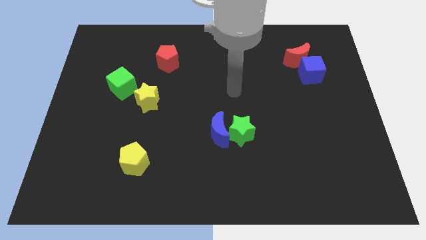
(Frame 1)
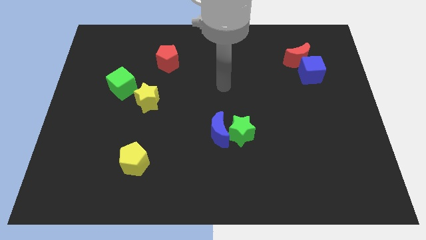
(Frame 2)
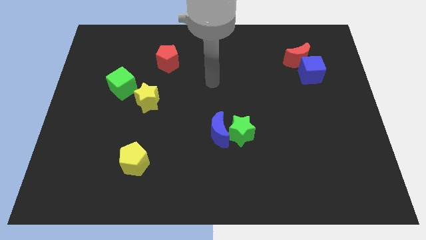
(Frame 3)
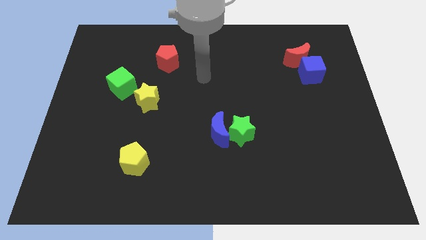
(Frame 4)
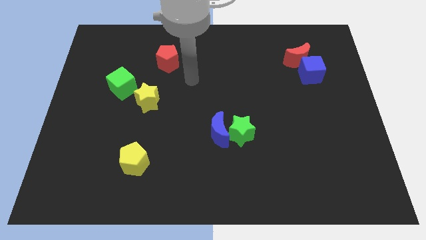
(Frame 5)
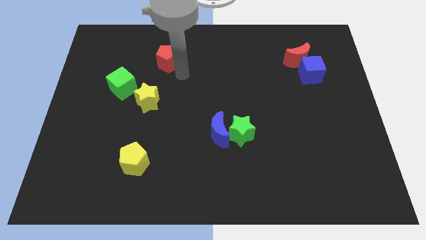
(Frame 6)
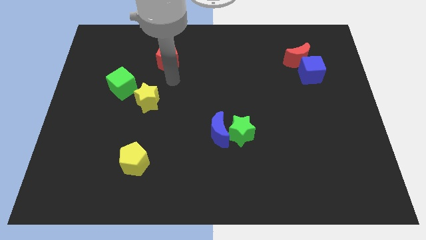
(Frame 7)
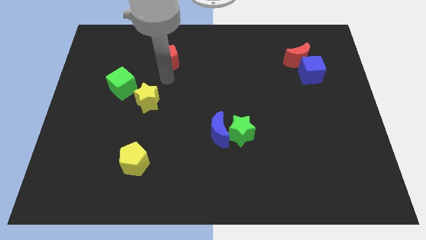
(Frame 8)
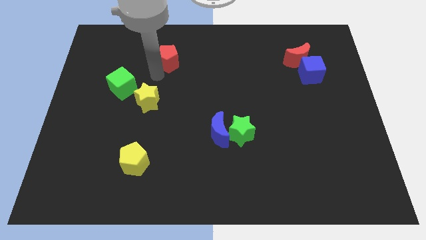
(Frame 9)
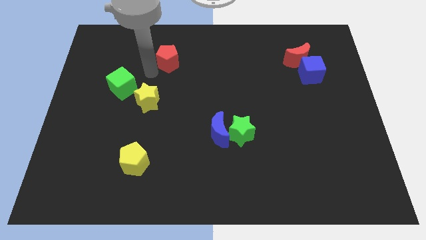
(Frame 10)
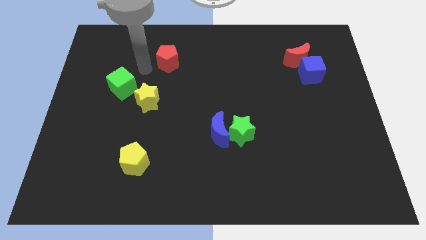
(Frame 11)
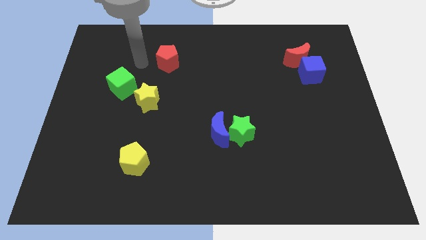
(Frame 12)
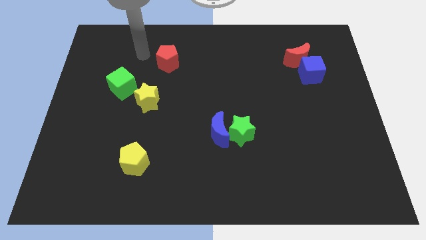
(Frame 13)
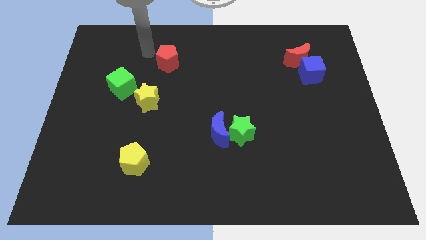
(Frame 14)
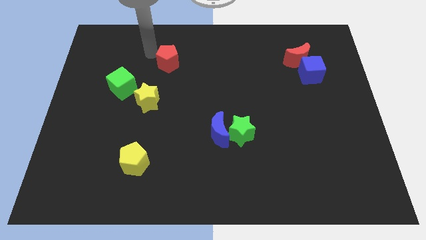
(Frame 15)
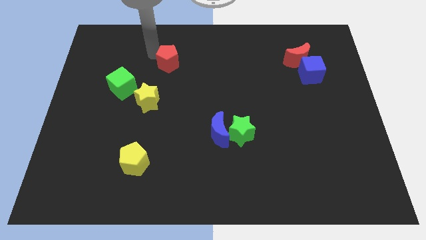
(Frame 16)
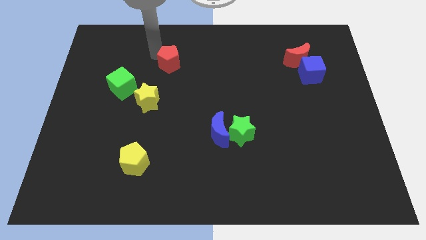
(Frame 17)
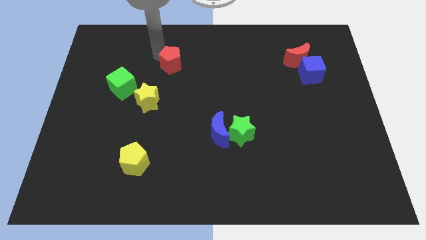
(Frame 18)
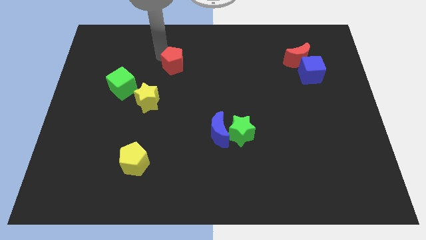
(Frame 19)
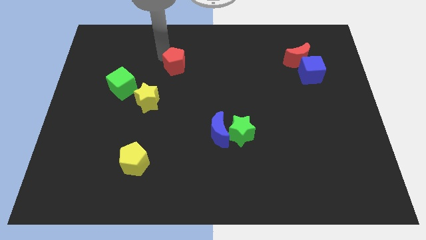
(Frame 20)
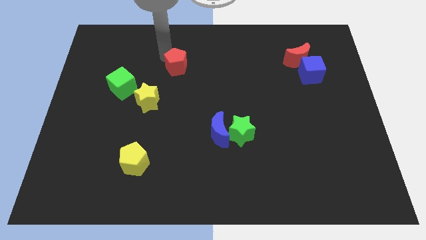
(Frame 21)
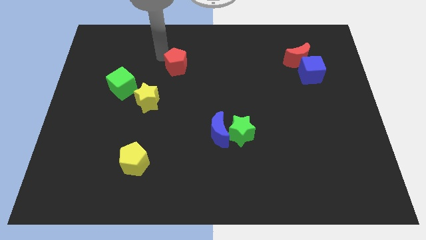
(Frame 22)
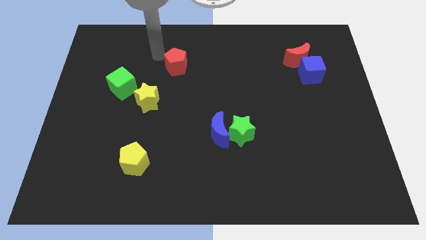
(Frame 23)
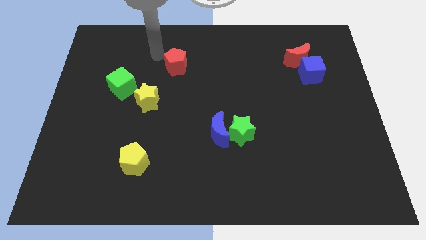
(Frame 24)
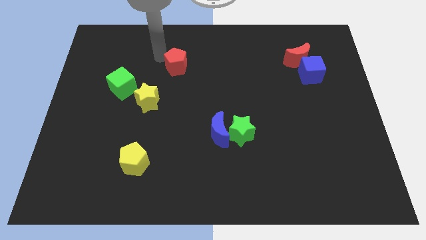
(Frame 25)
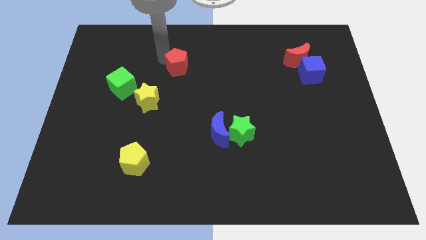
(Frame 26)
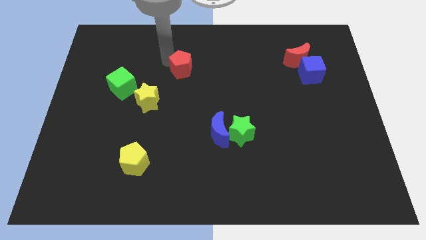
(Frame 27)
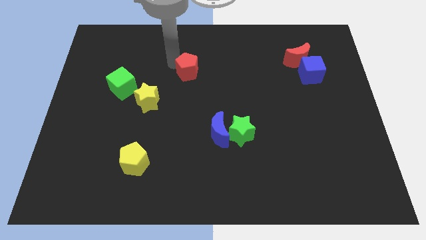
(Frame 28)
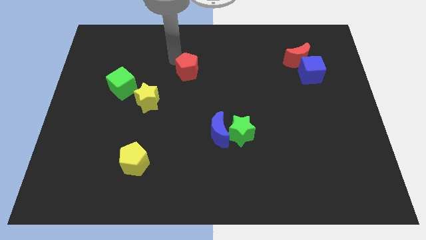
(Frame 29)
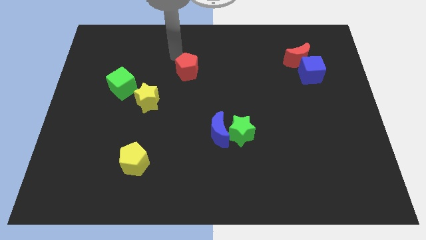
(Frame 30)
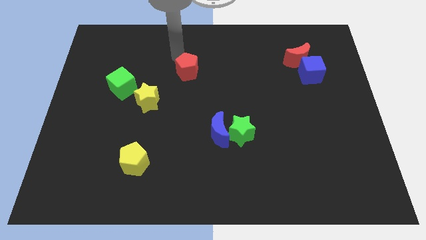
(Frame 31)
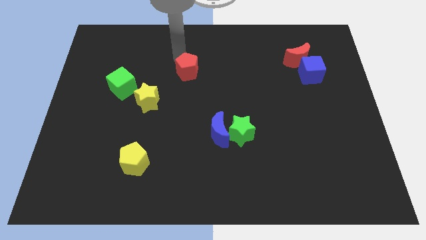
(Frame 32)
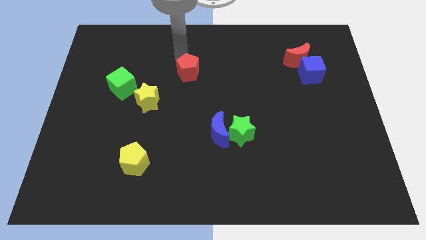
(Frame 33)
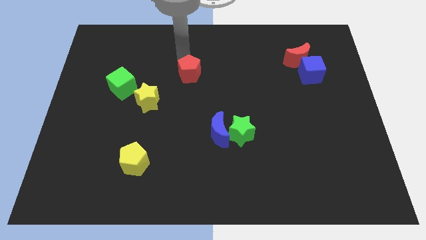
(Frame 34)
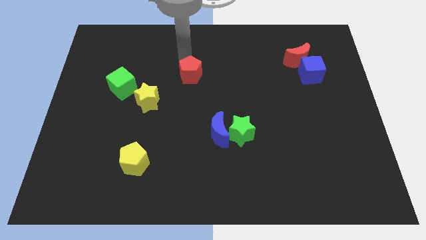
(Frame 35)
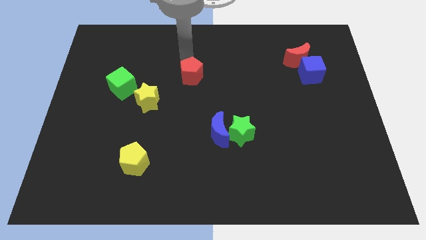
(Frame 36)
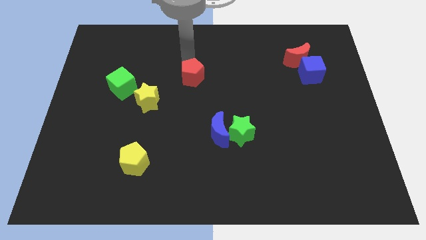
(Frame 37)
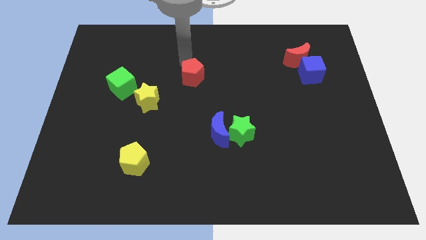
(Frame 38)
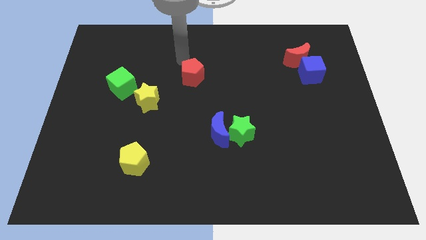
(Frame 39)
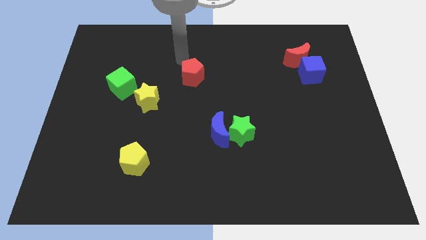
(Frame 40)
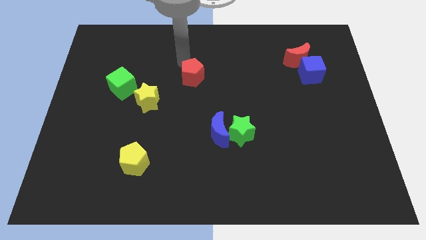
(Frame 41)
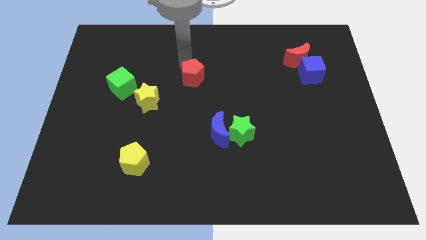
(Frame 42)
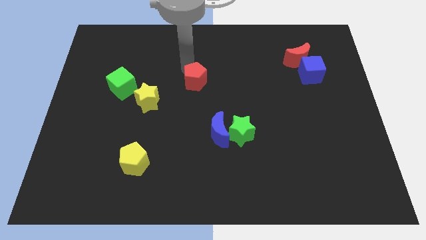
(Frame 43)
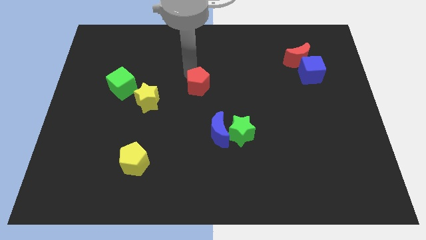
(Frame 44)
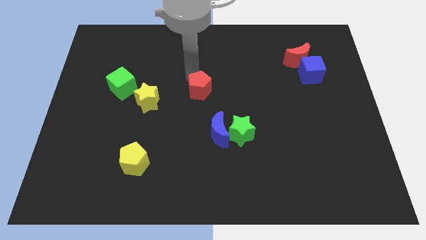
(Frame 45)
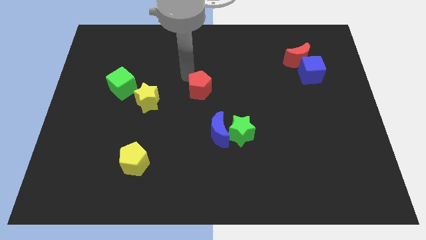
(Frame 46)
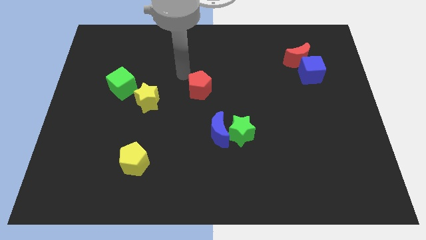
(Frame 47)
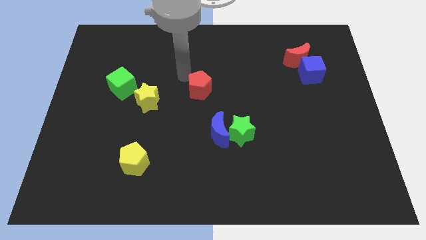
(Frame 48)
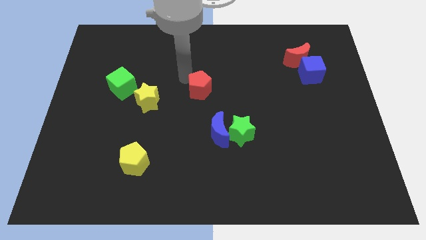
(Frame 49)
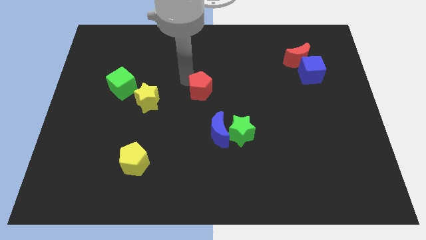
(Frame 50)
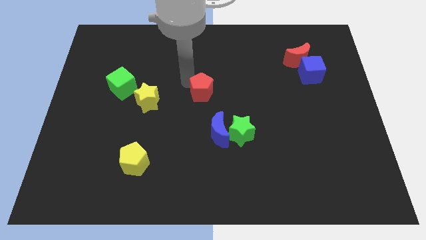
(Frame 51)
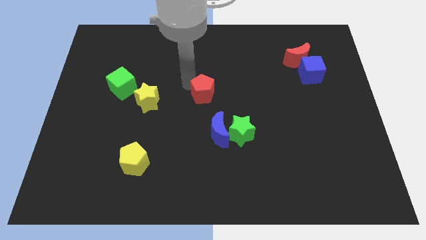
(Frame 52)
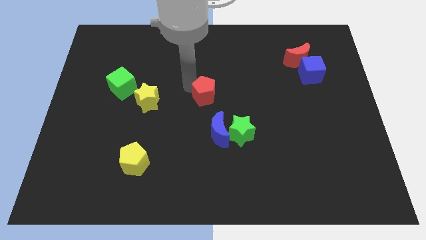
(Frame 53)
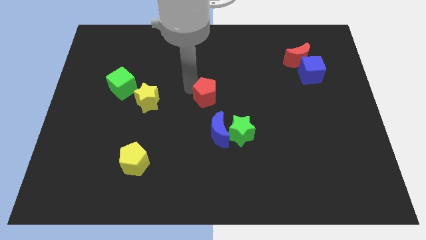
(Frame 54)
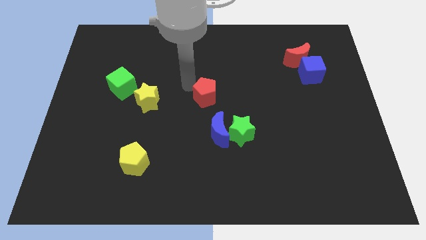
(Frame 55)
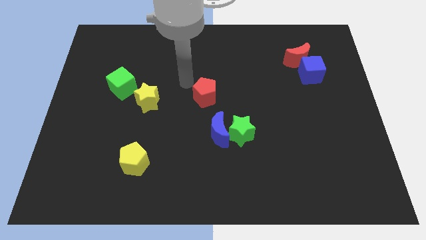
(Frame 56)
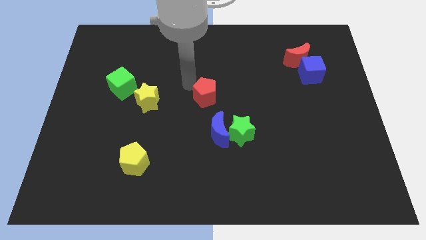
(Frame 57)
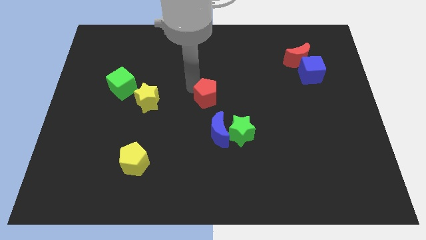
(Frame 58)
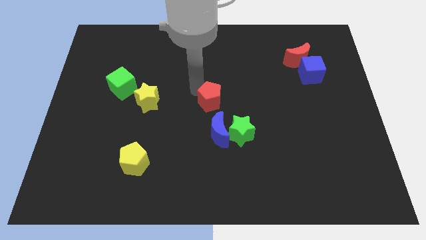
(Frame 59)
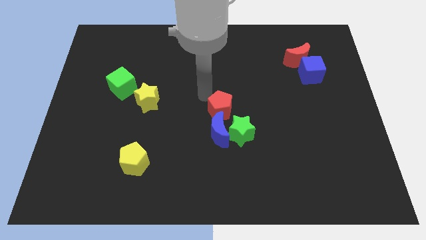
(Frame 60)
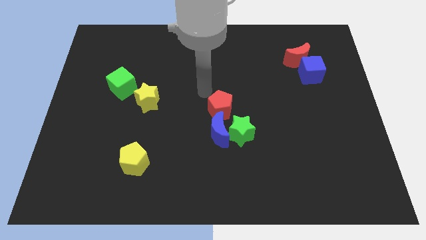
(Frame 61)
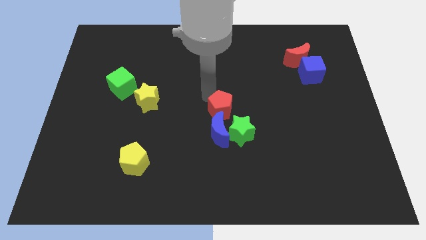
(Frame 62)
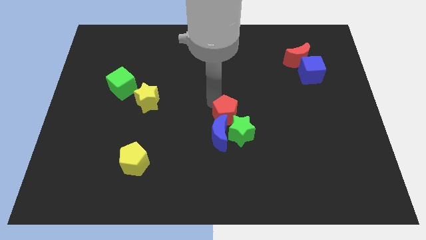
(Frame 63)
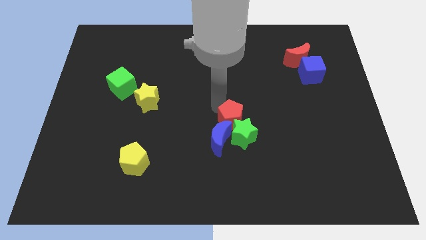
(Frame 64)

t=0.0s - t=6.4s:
put the red pentagon to the green star

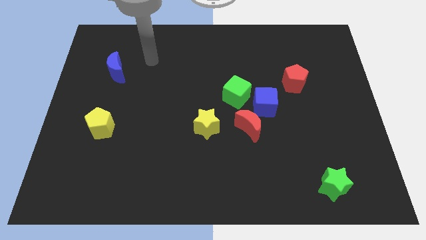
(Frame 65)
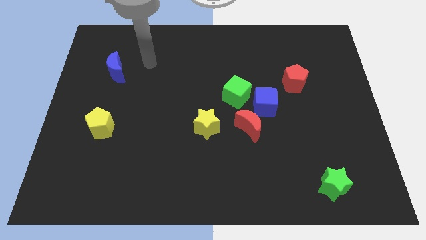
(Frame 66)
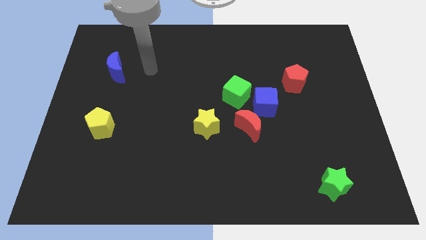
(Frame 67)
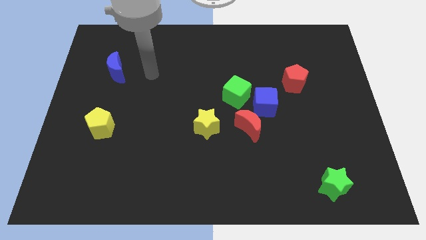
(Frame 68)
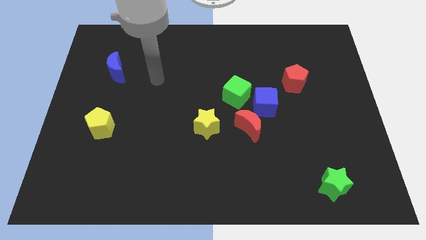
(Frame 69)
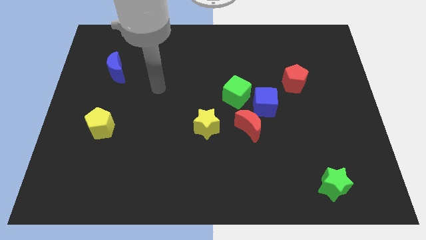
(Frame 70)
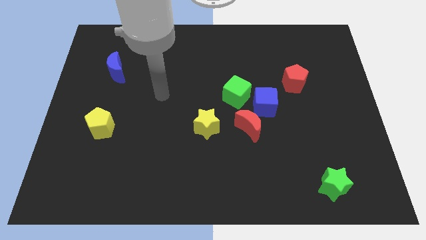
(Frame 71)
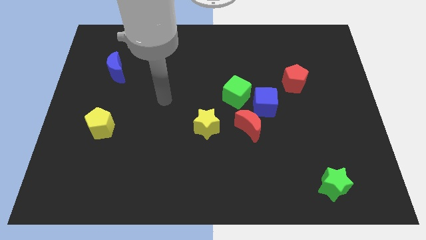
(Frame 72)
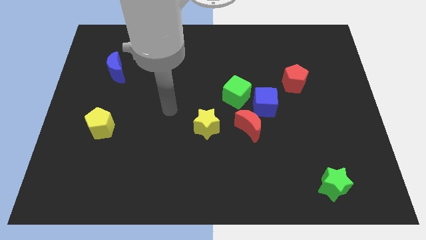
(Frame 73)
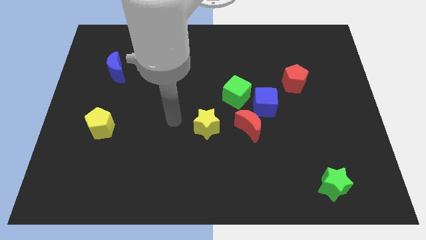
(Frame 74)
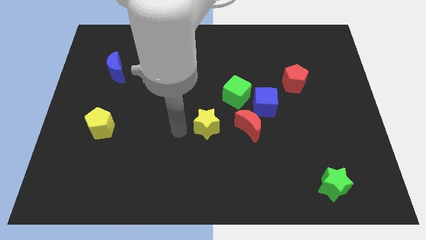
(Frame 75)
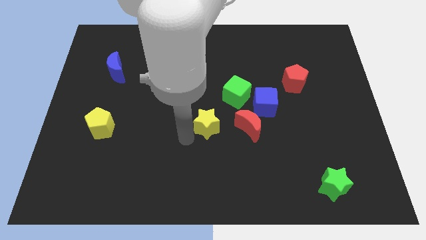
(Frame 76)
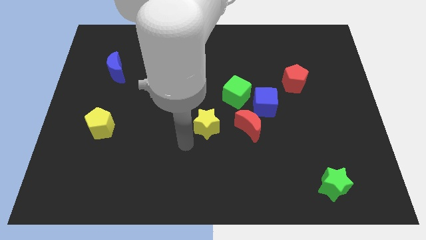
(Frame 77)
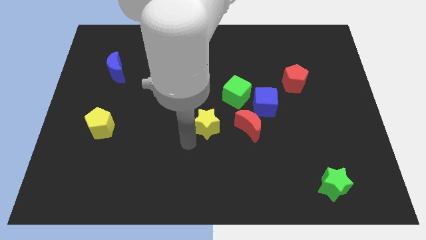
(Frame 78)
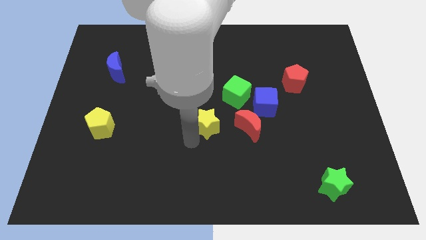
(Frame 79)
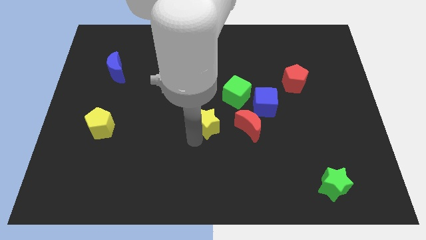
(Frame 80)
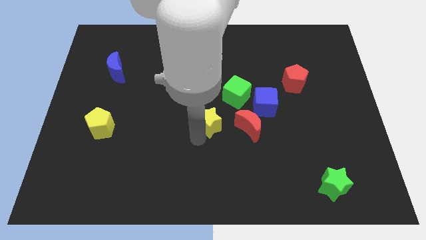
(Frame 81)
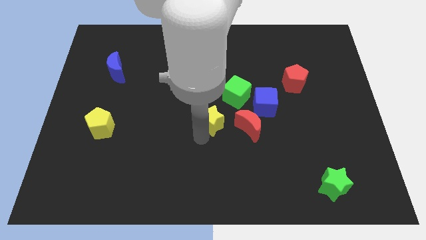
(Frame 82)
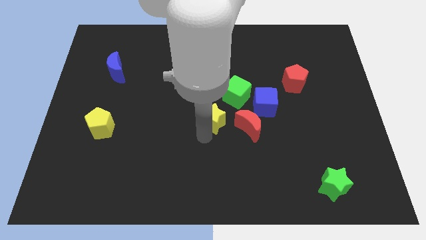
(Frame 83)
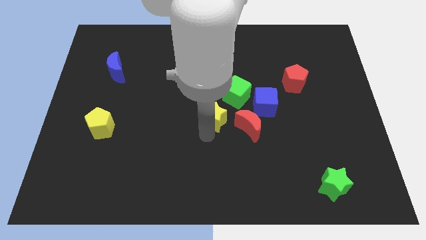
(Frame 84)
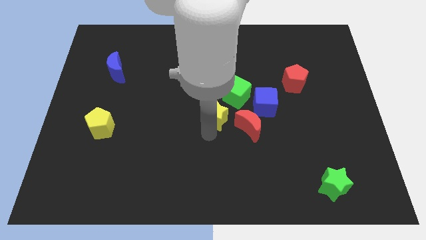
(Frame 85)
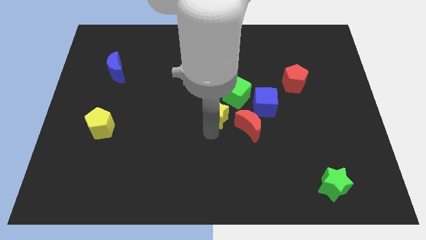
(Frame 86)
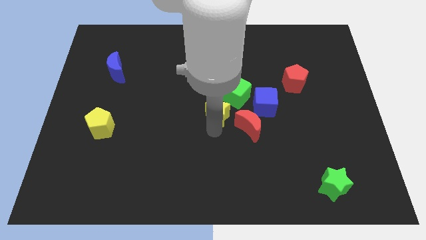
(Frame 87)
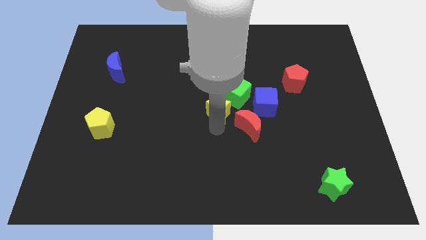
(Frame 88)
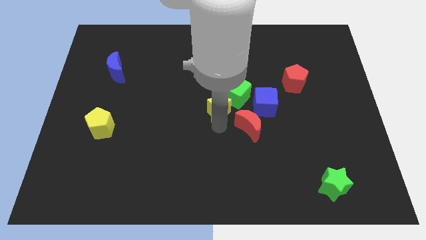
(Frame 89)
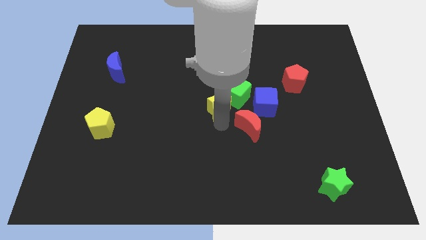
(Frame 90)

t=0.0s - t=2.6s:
move the yellow star to the green cube
